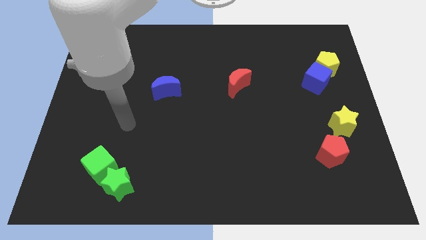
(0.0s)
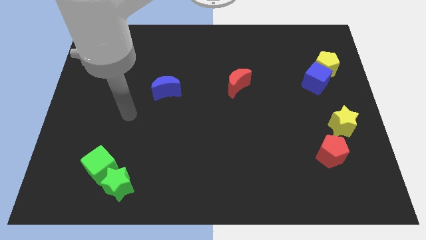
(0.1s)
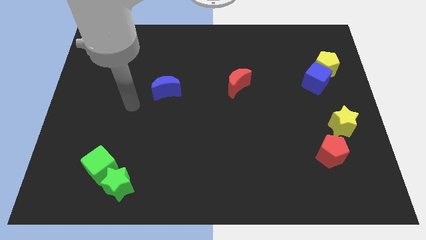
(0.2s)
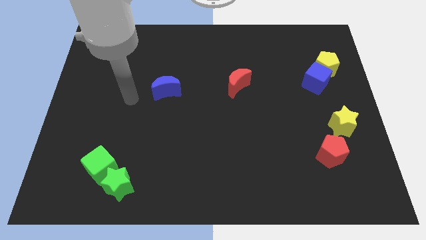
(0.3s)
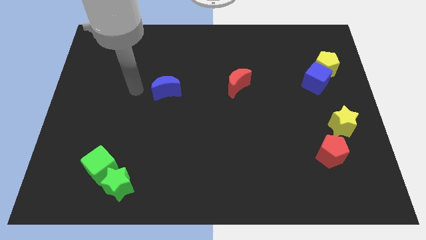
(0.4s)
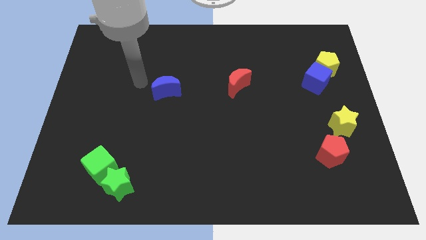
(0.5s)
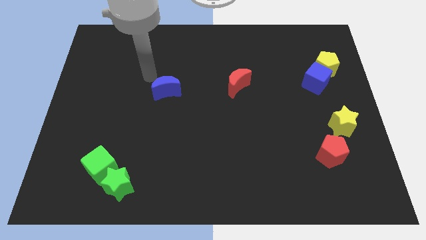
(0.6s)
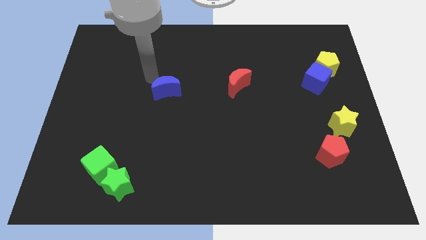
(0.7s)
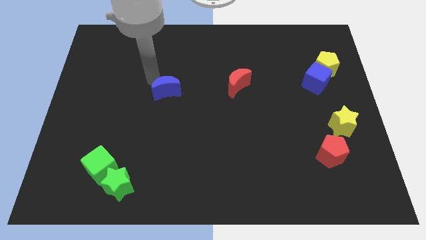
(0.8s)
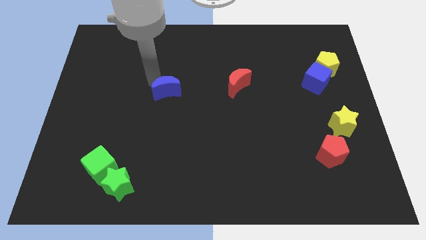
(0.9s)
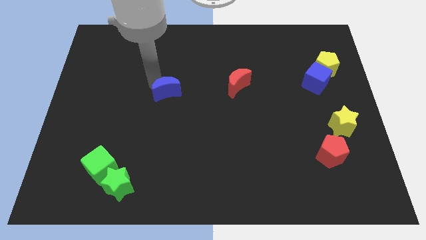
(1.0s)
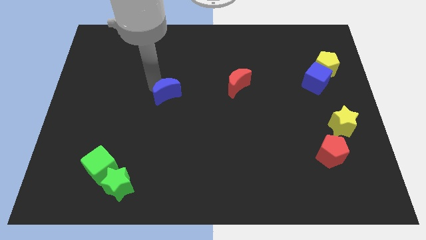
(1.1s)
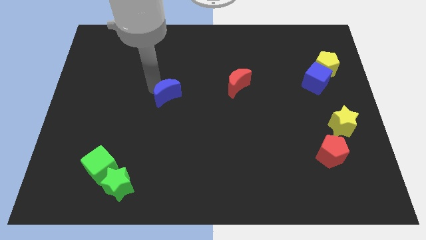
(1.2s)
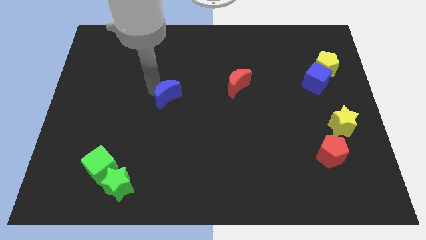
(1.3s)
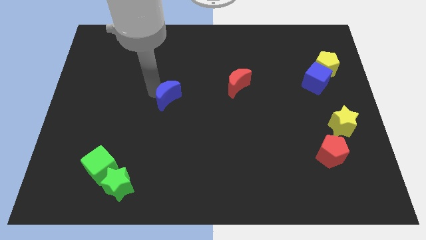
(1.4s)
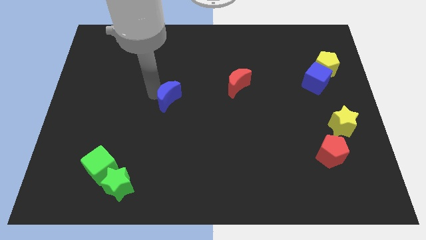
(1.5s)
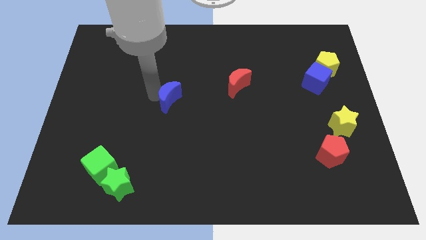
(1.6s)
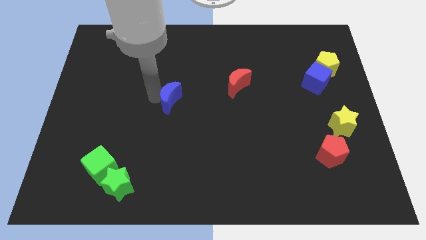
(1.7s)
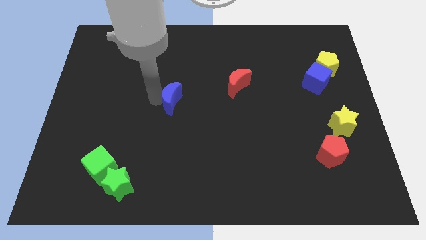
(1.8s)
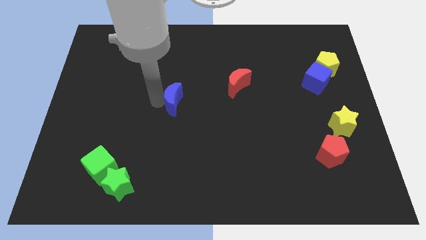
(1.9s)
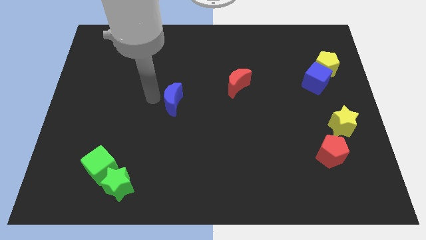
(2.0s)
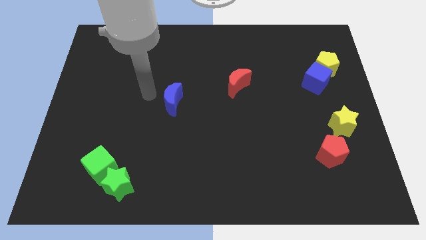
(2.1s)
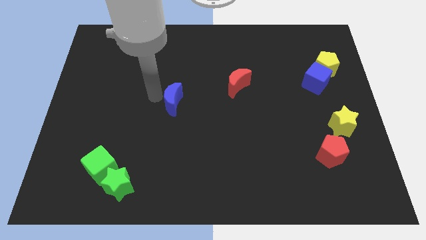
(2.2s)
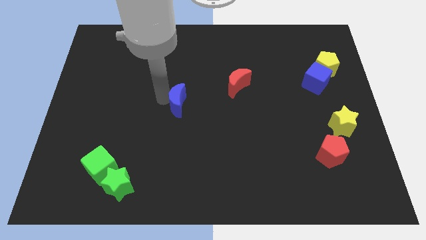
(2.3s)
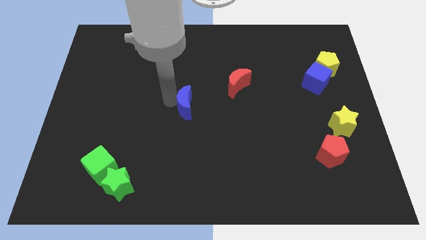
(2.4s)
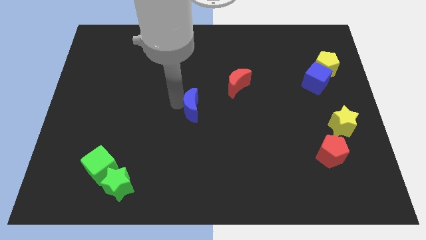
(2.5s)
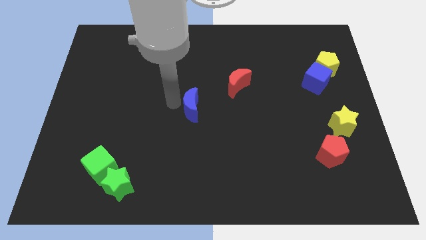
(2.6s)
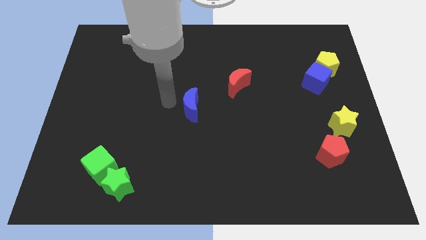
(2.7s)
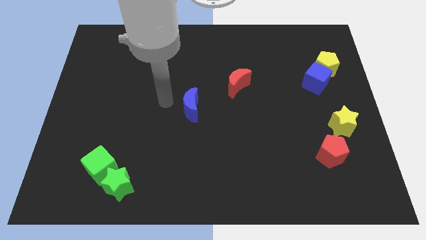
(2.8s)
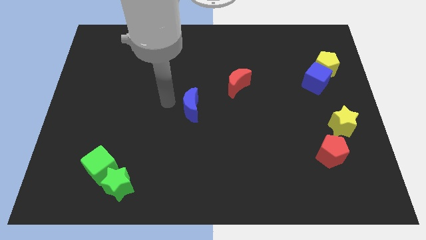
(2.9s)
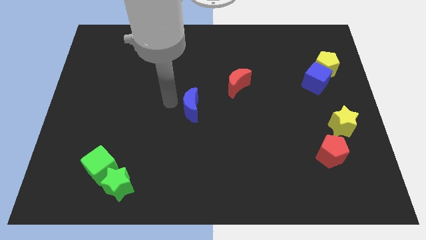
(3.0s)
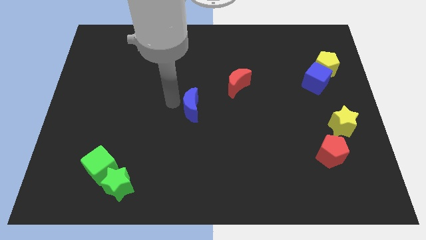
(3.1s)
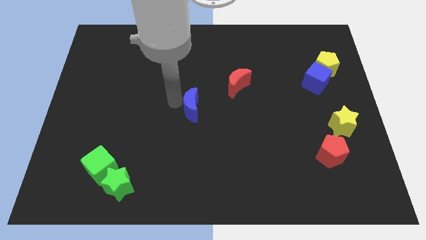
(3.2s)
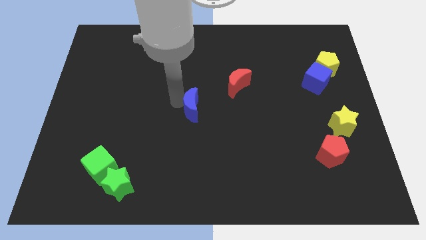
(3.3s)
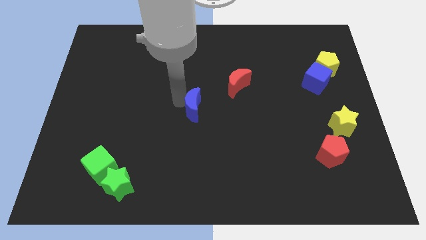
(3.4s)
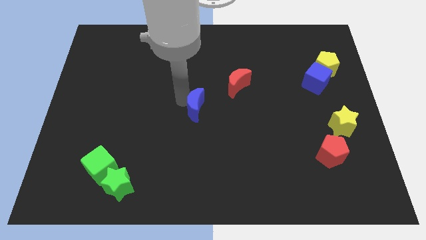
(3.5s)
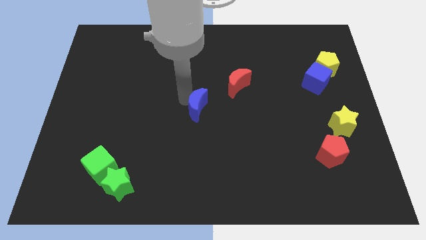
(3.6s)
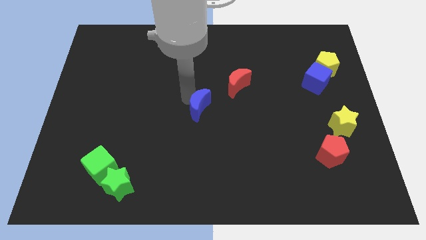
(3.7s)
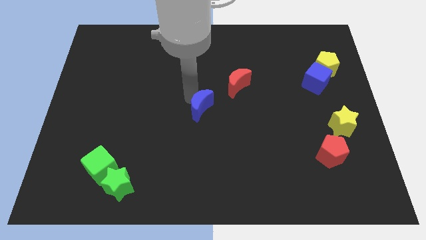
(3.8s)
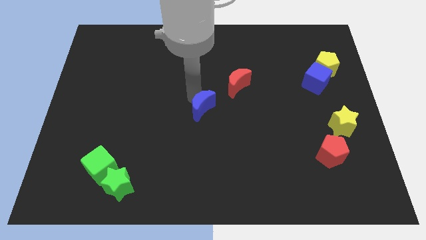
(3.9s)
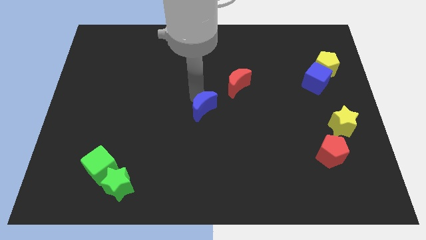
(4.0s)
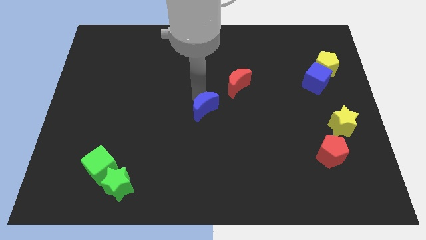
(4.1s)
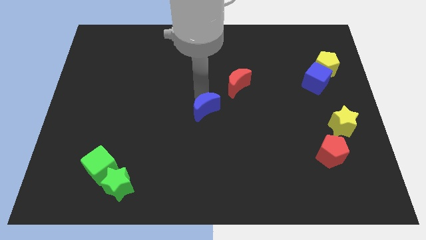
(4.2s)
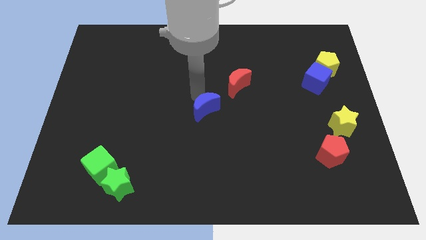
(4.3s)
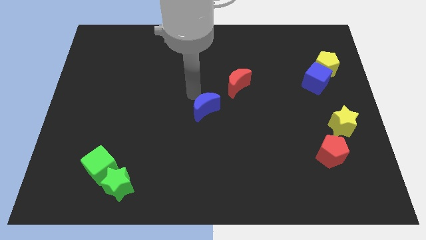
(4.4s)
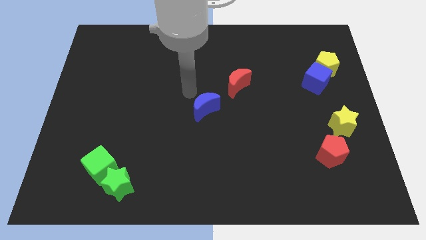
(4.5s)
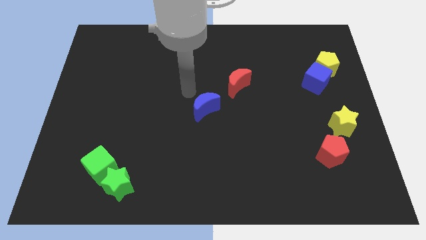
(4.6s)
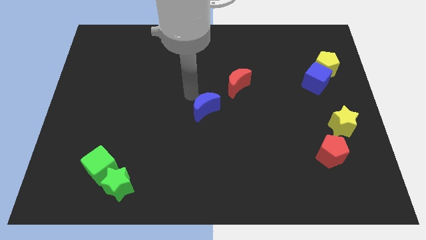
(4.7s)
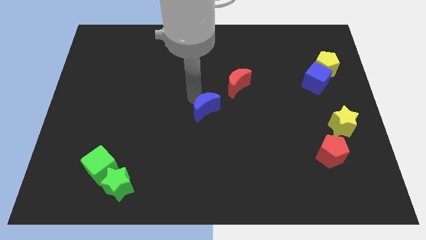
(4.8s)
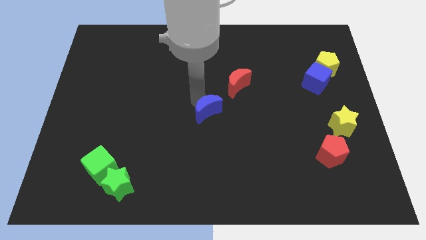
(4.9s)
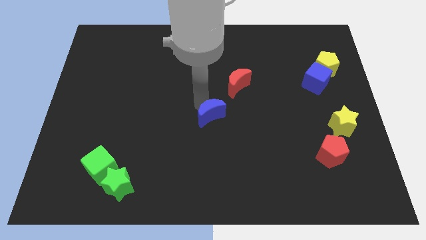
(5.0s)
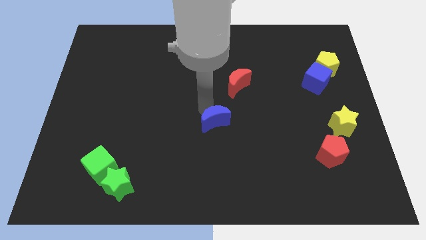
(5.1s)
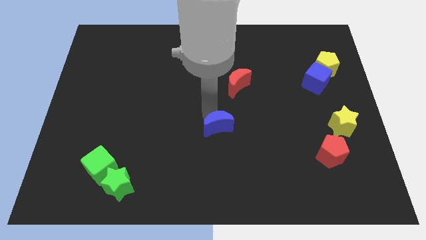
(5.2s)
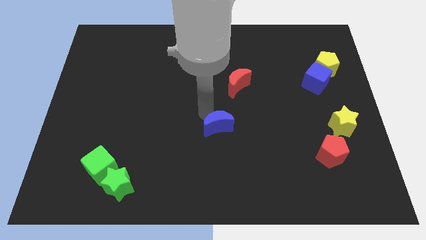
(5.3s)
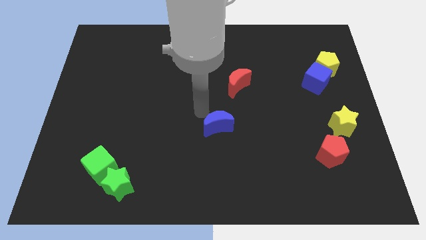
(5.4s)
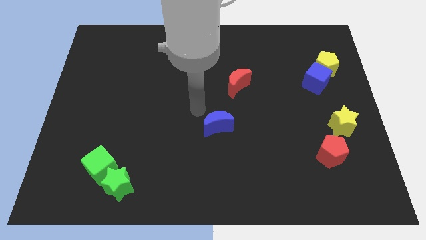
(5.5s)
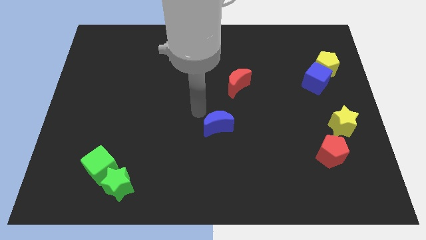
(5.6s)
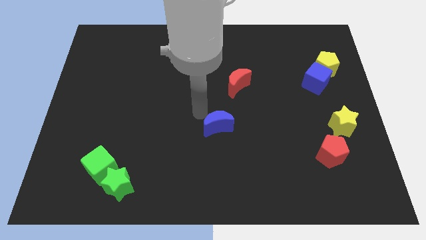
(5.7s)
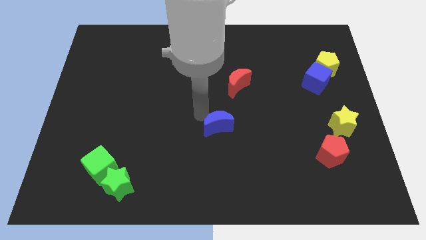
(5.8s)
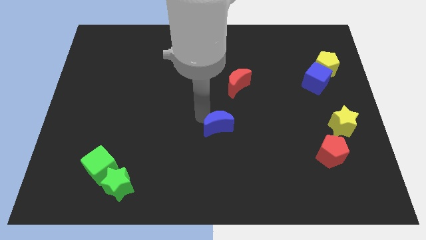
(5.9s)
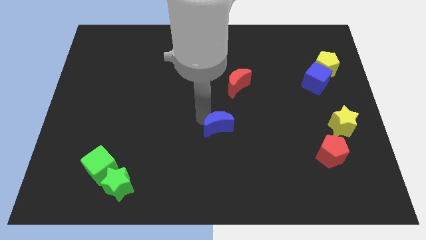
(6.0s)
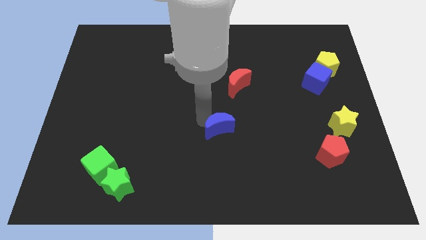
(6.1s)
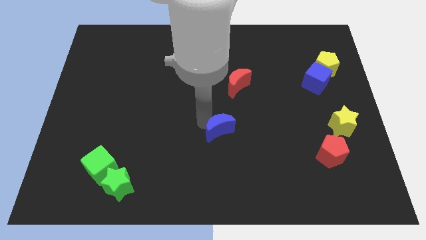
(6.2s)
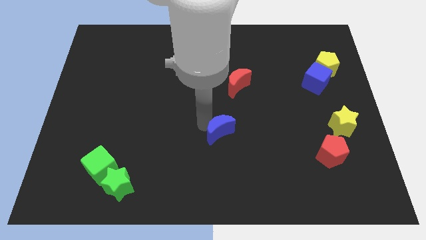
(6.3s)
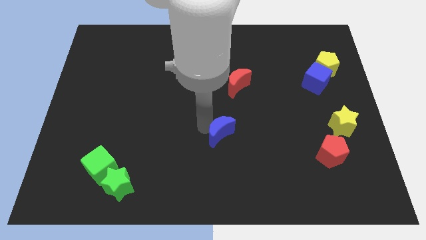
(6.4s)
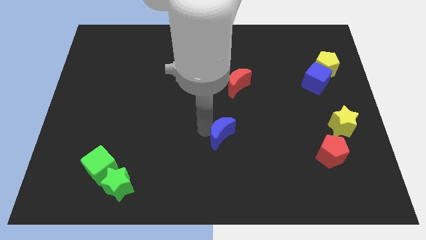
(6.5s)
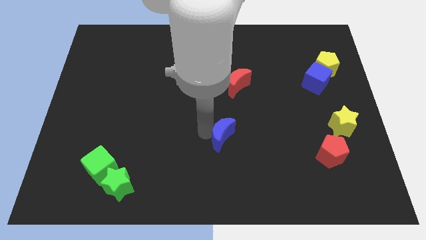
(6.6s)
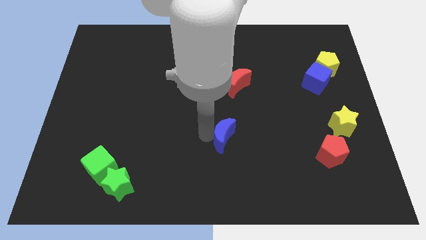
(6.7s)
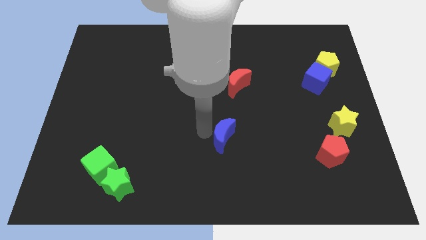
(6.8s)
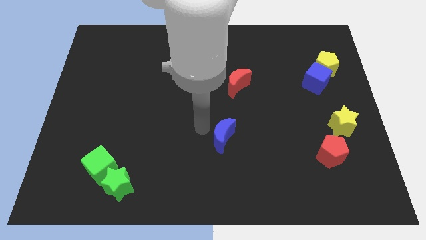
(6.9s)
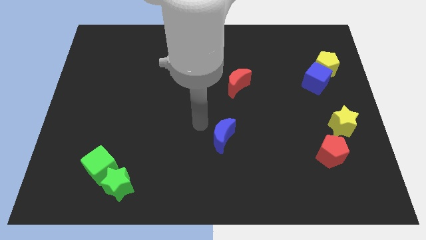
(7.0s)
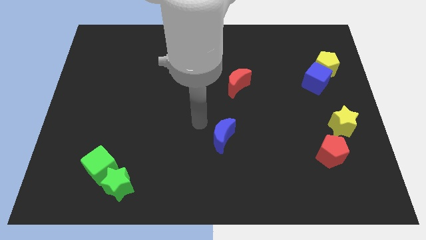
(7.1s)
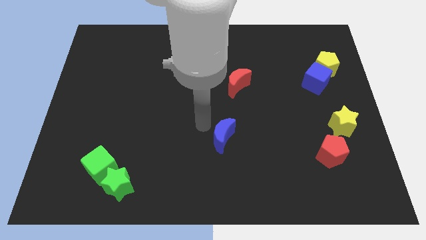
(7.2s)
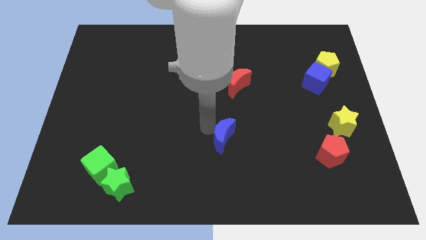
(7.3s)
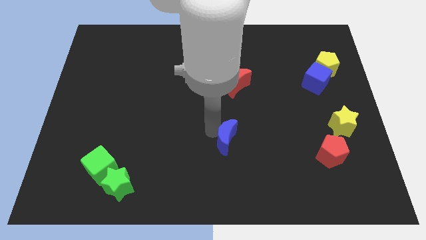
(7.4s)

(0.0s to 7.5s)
move the blue moon downwards and to the right

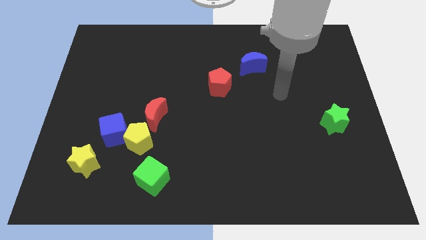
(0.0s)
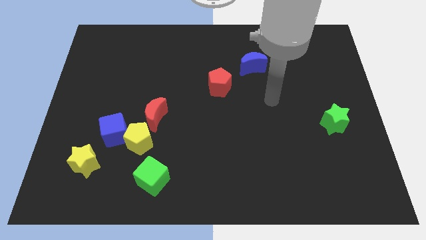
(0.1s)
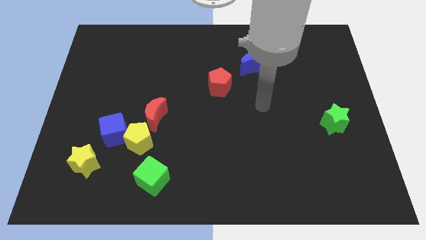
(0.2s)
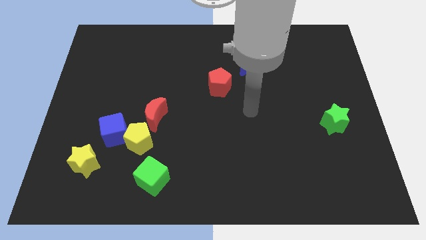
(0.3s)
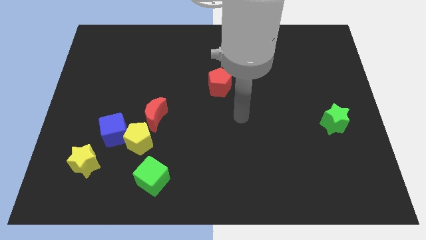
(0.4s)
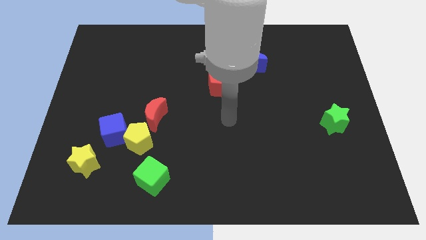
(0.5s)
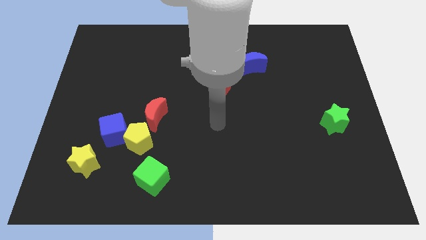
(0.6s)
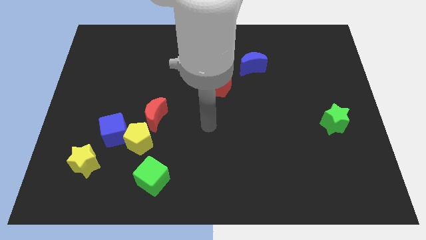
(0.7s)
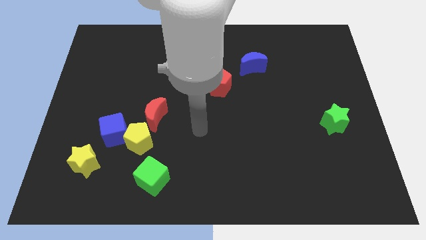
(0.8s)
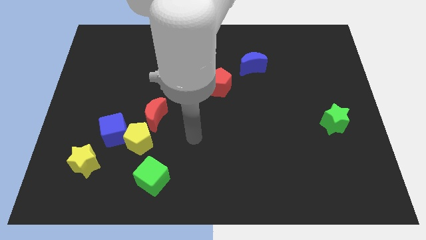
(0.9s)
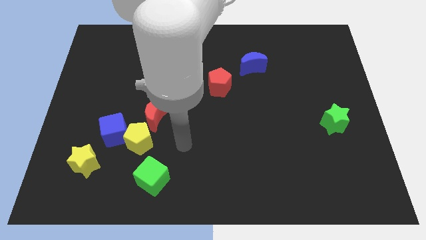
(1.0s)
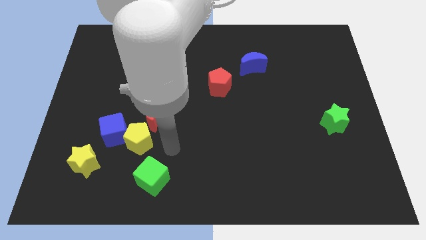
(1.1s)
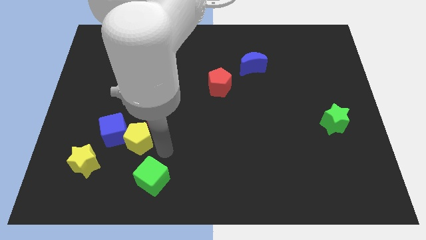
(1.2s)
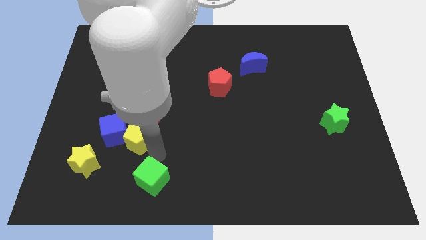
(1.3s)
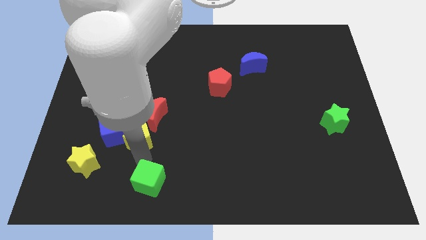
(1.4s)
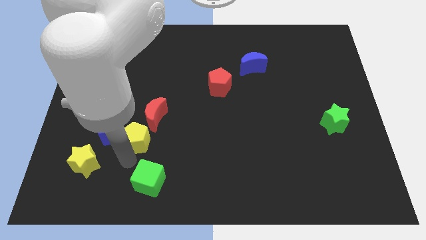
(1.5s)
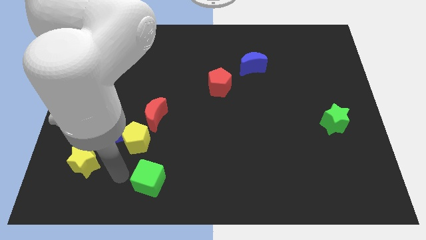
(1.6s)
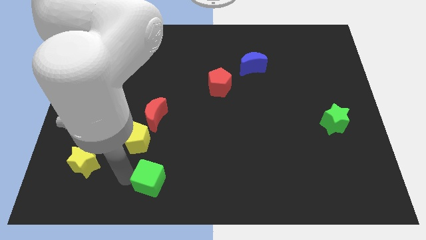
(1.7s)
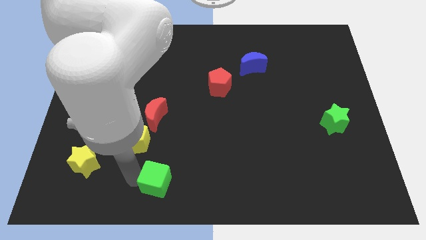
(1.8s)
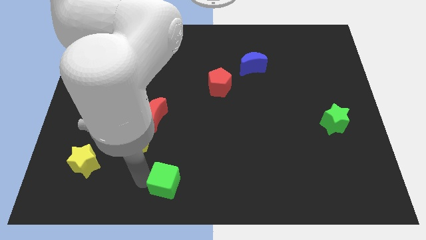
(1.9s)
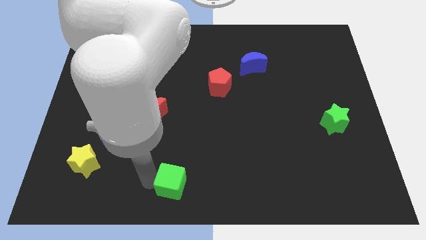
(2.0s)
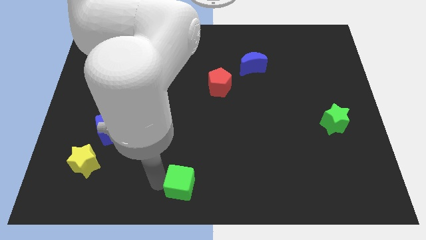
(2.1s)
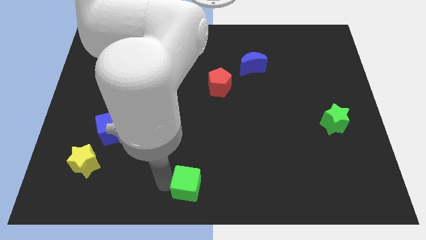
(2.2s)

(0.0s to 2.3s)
push the green cube a little bit right
